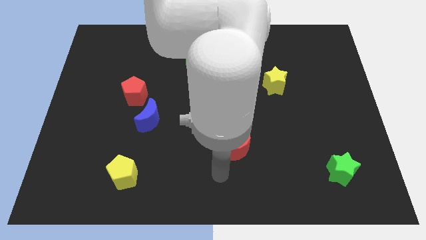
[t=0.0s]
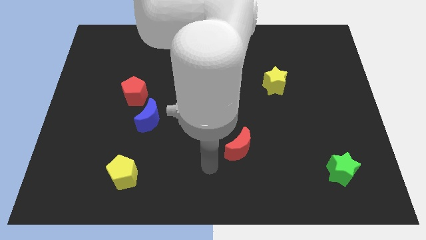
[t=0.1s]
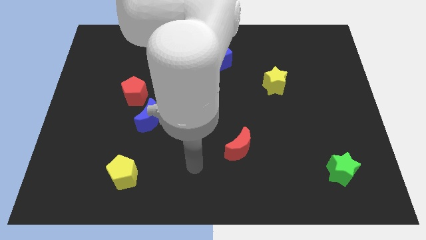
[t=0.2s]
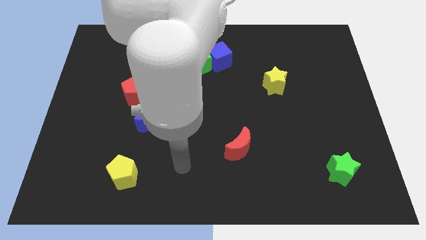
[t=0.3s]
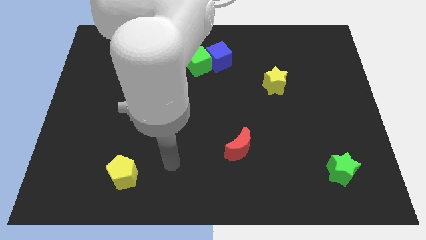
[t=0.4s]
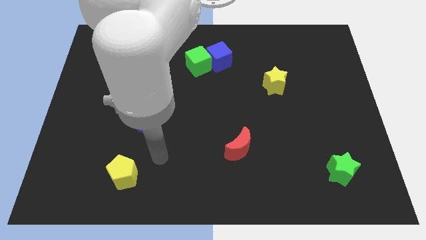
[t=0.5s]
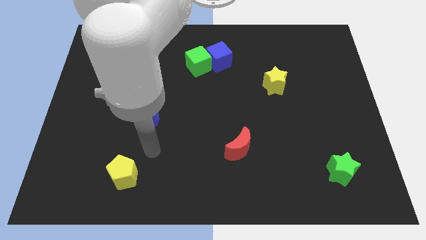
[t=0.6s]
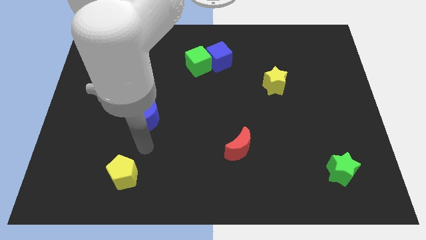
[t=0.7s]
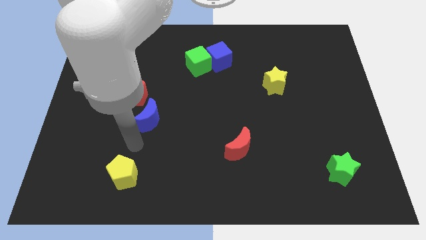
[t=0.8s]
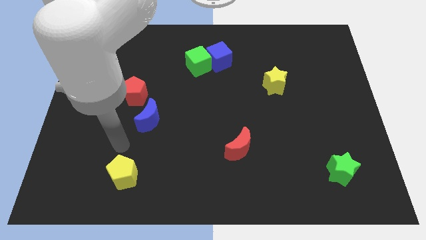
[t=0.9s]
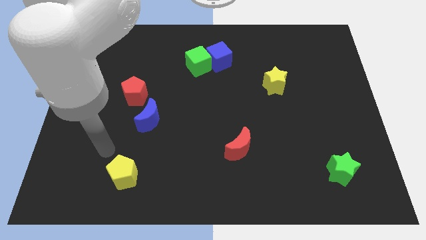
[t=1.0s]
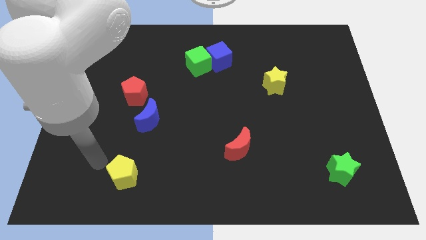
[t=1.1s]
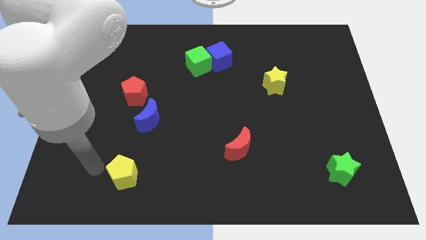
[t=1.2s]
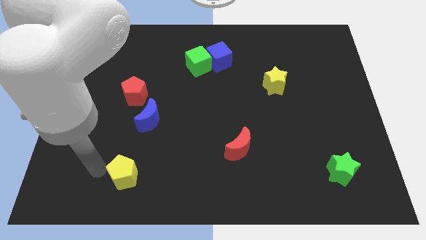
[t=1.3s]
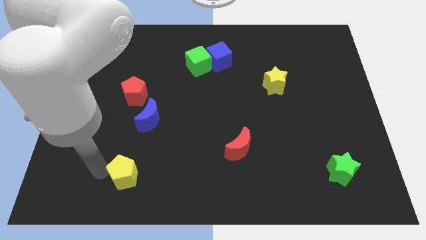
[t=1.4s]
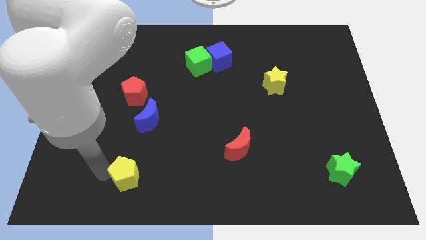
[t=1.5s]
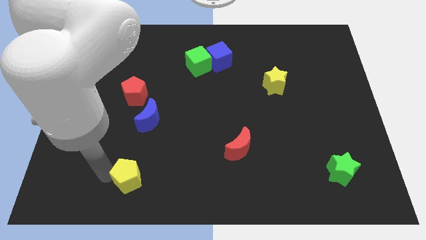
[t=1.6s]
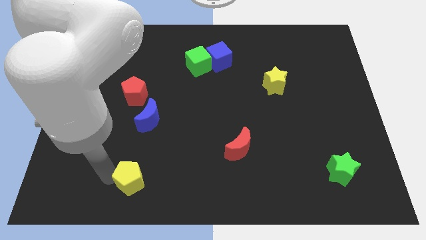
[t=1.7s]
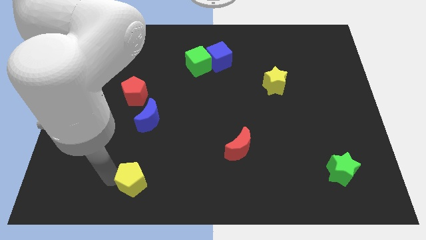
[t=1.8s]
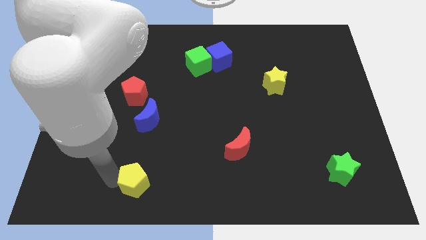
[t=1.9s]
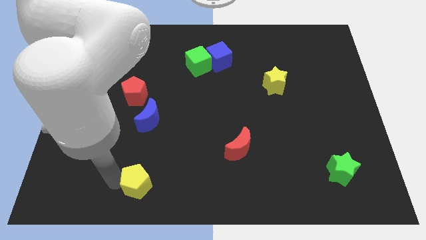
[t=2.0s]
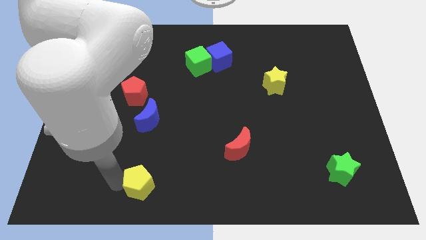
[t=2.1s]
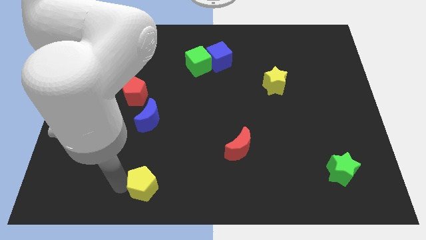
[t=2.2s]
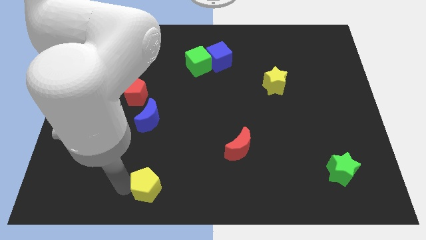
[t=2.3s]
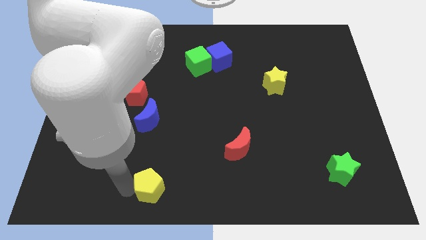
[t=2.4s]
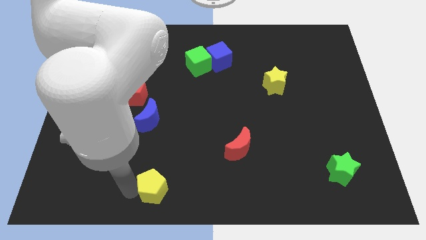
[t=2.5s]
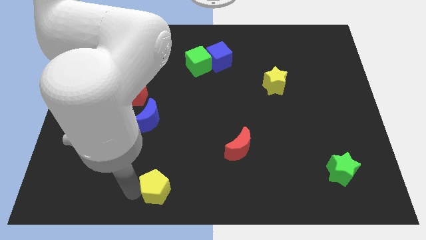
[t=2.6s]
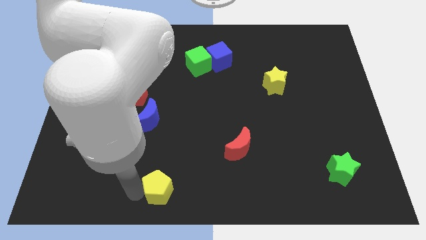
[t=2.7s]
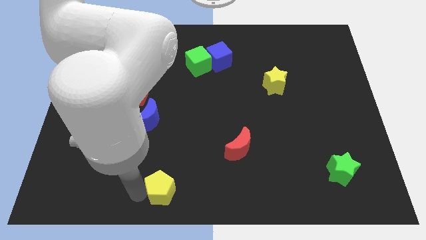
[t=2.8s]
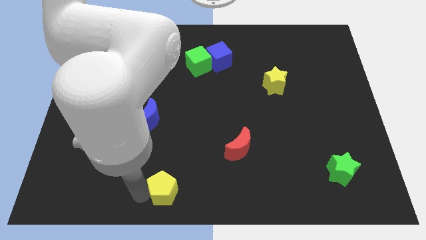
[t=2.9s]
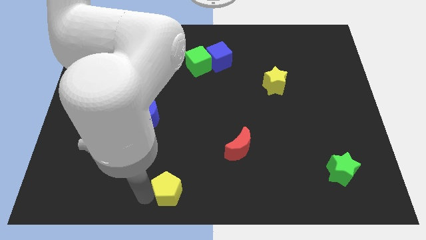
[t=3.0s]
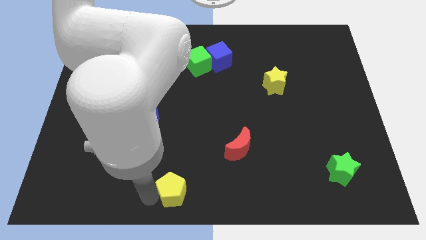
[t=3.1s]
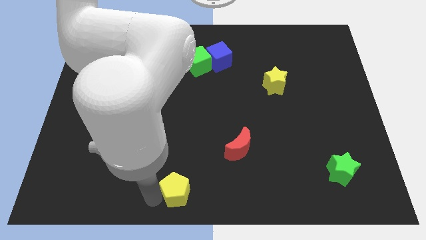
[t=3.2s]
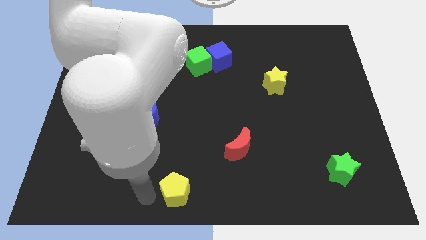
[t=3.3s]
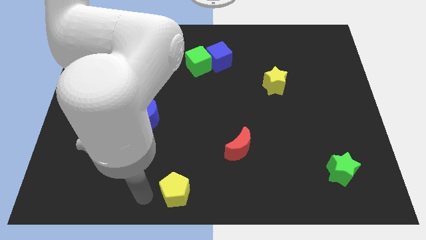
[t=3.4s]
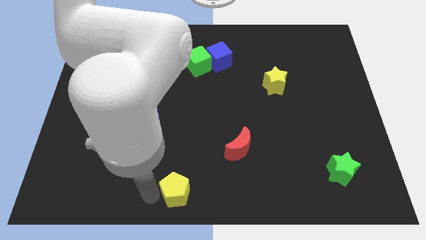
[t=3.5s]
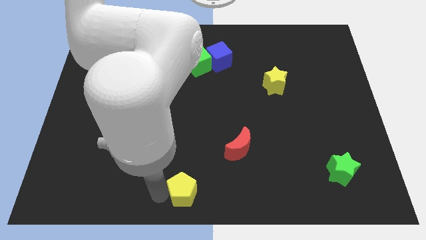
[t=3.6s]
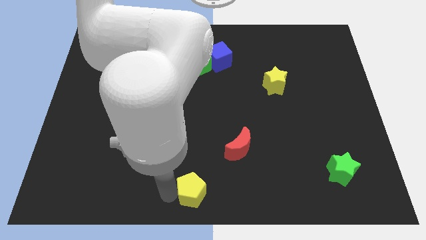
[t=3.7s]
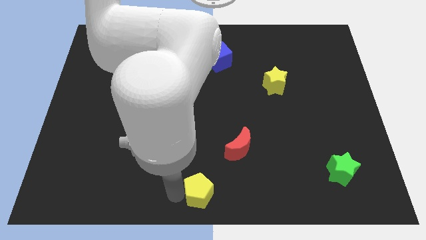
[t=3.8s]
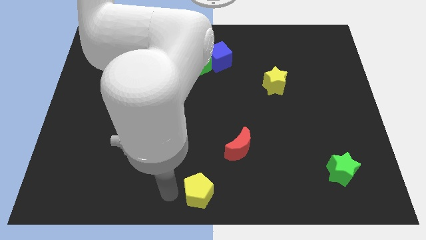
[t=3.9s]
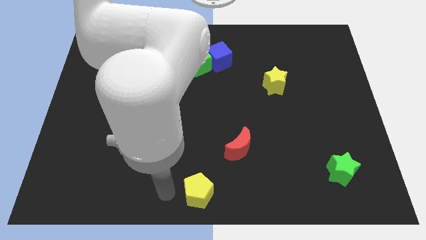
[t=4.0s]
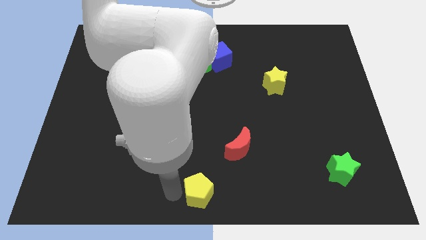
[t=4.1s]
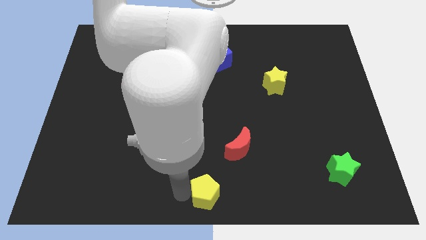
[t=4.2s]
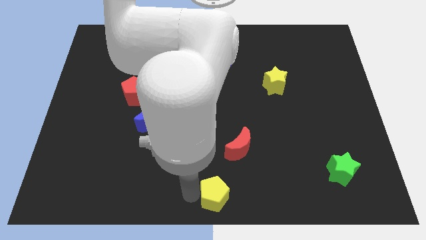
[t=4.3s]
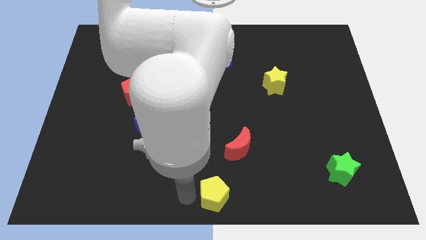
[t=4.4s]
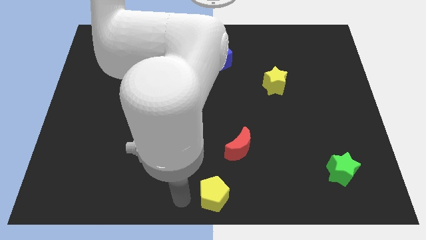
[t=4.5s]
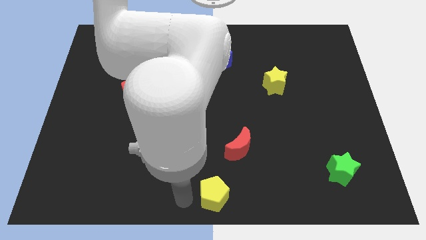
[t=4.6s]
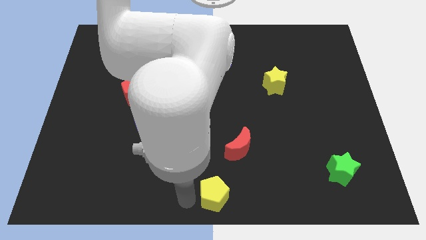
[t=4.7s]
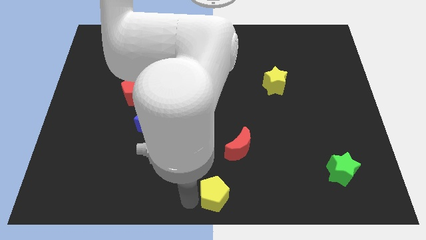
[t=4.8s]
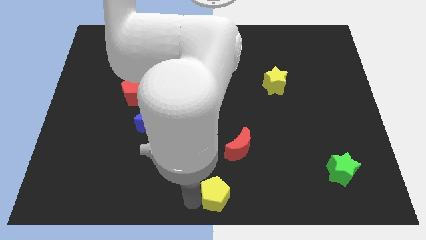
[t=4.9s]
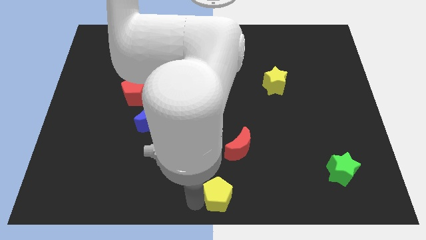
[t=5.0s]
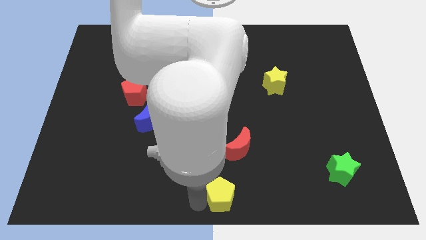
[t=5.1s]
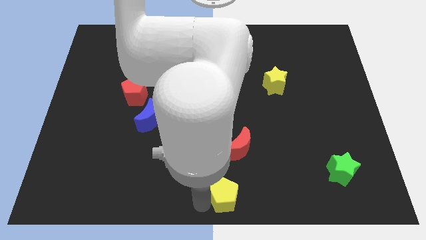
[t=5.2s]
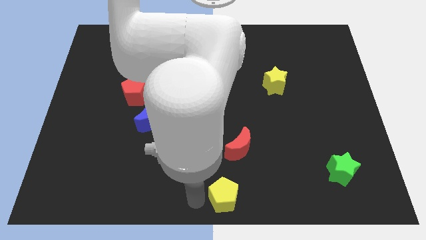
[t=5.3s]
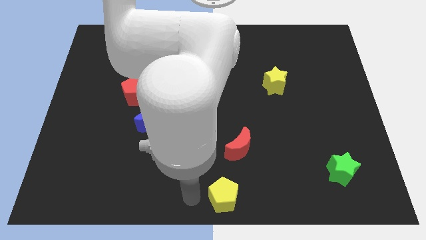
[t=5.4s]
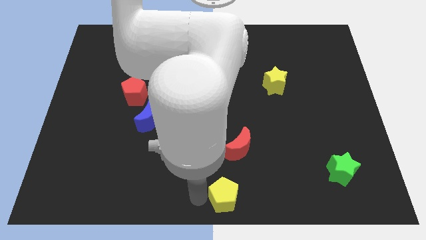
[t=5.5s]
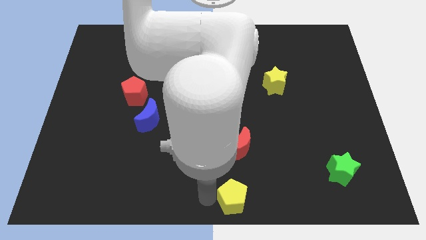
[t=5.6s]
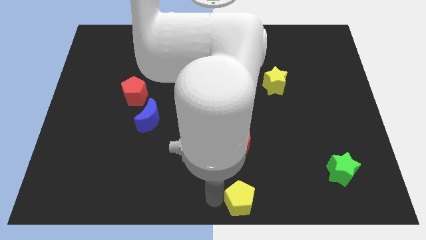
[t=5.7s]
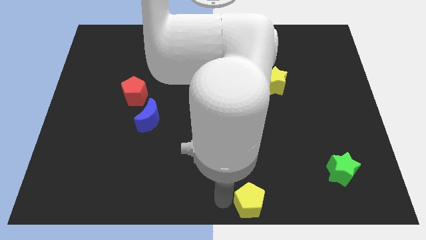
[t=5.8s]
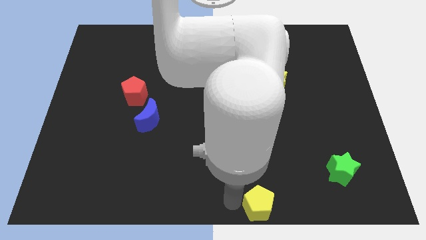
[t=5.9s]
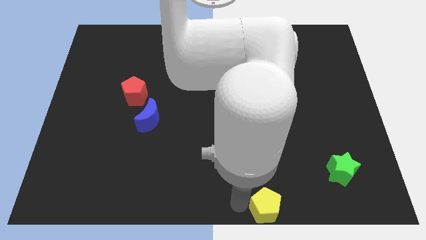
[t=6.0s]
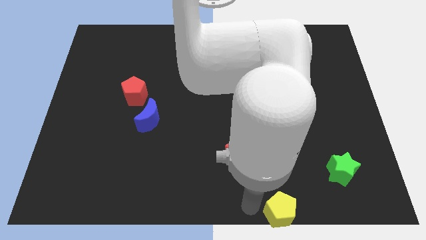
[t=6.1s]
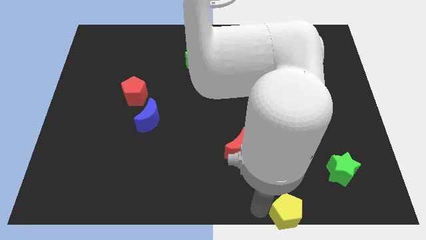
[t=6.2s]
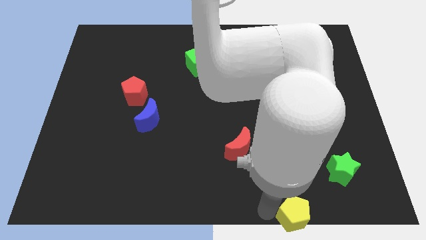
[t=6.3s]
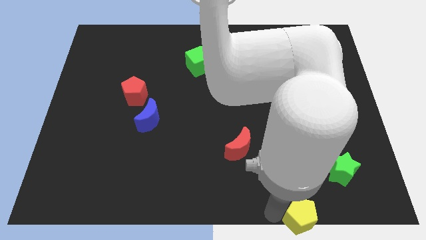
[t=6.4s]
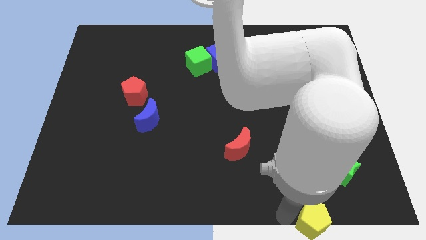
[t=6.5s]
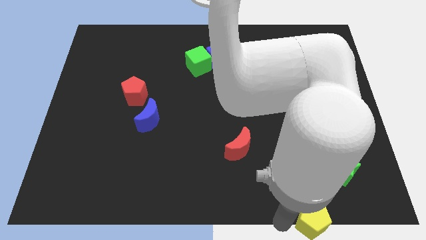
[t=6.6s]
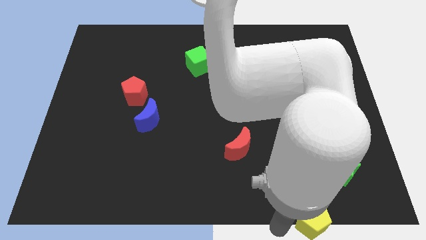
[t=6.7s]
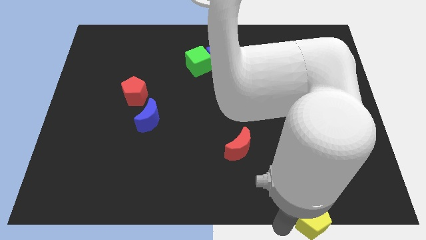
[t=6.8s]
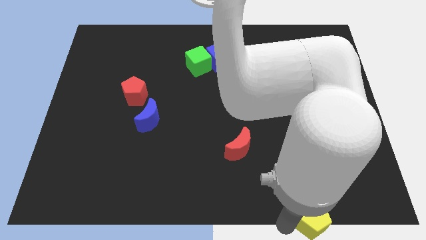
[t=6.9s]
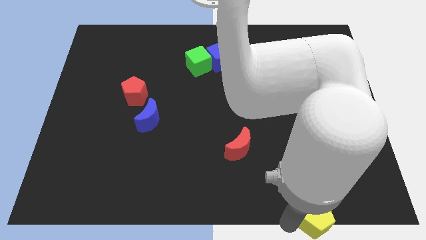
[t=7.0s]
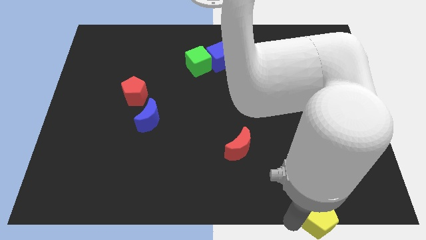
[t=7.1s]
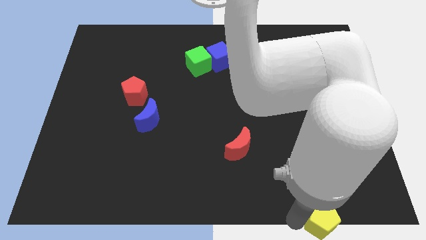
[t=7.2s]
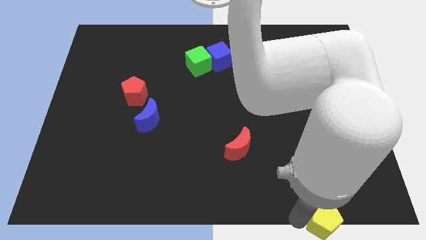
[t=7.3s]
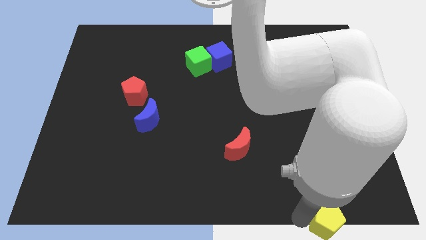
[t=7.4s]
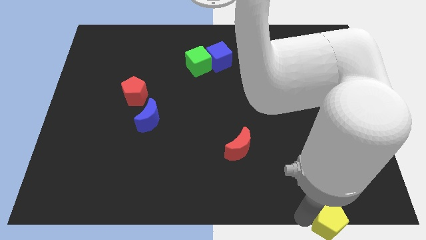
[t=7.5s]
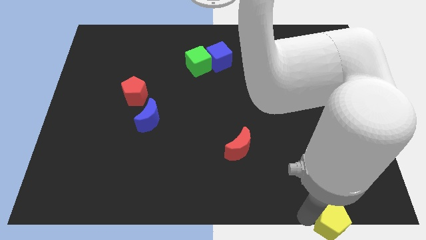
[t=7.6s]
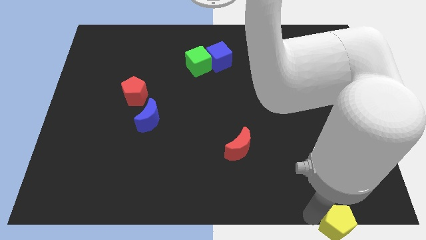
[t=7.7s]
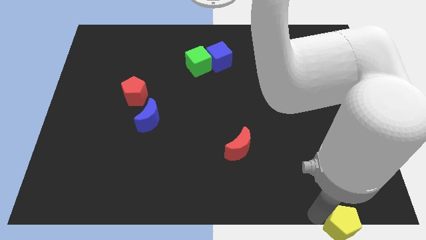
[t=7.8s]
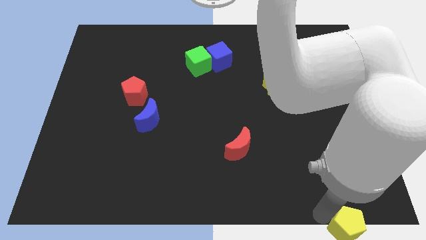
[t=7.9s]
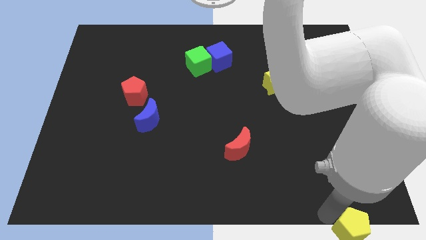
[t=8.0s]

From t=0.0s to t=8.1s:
push the yellow pentagon to the bottom right
